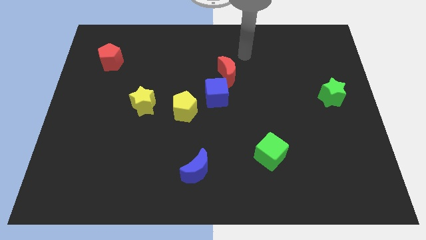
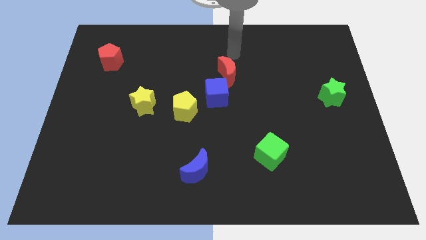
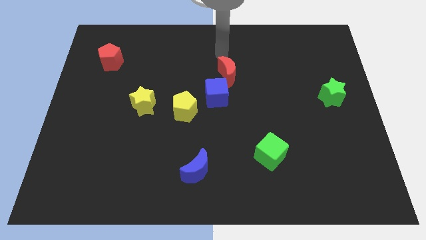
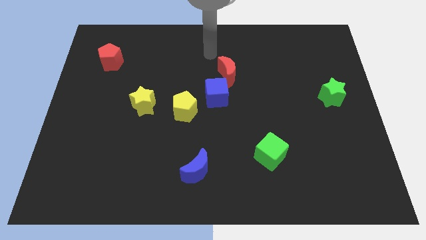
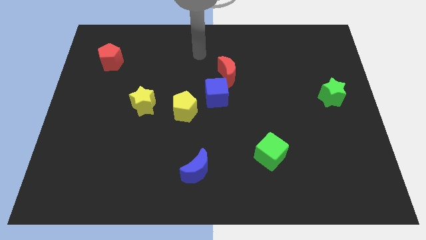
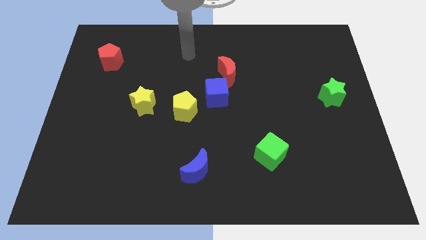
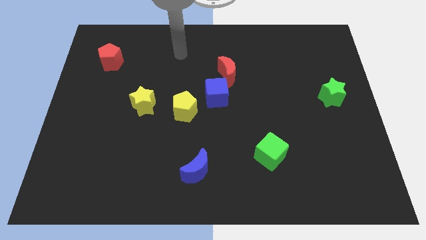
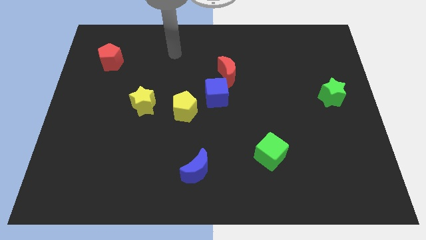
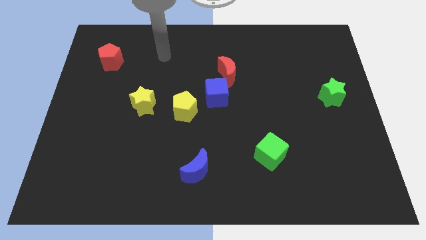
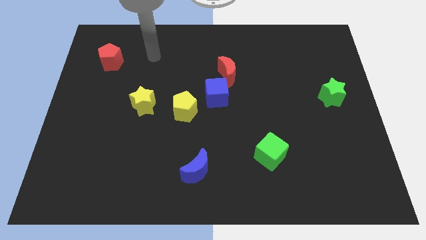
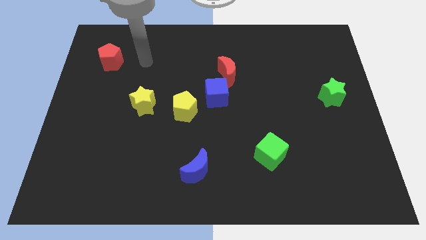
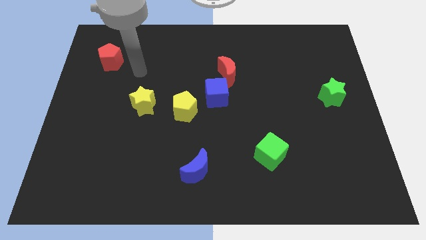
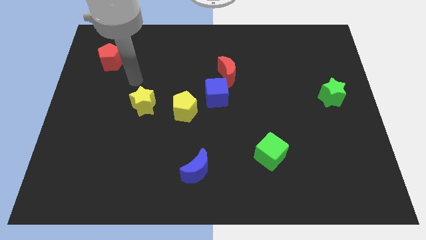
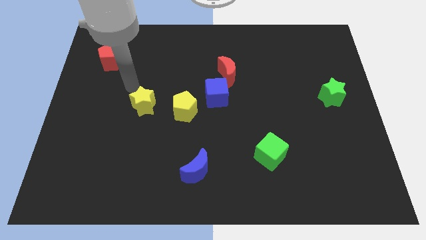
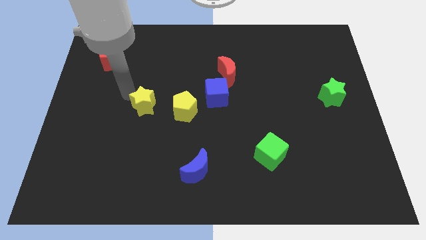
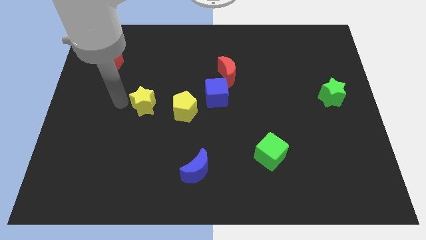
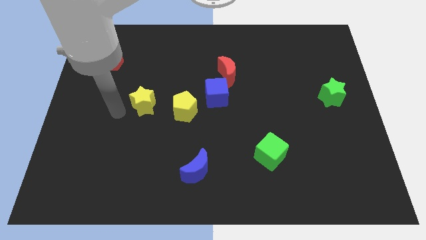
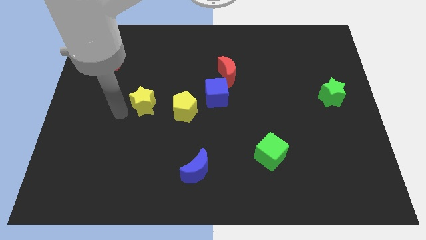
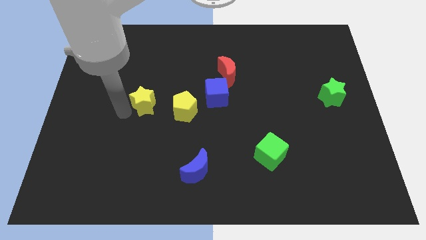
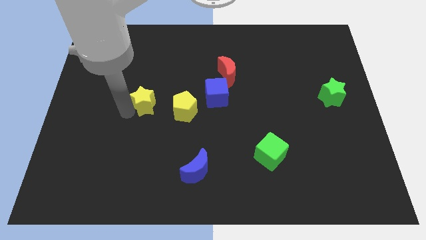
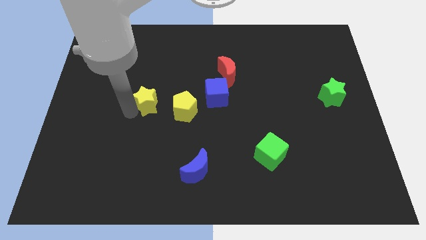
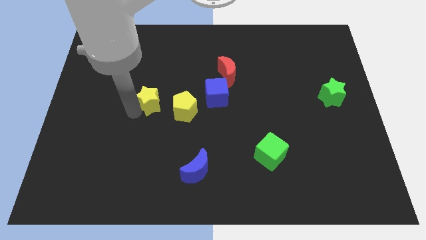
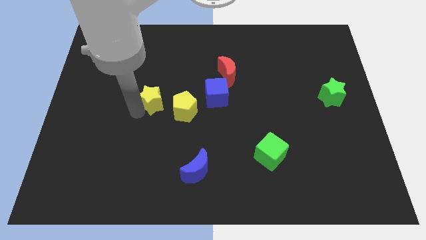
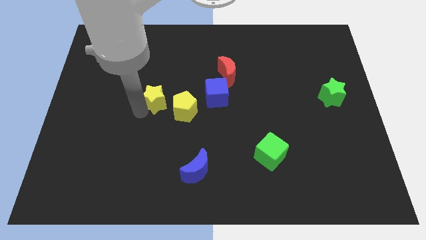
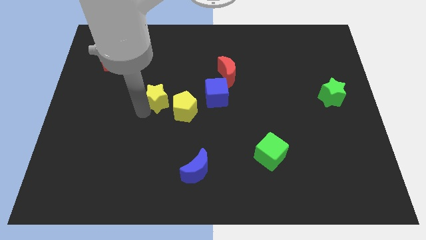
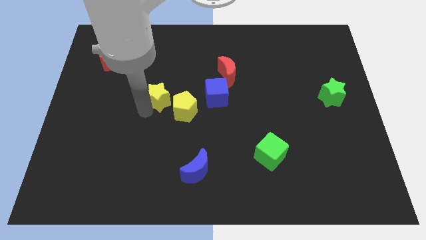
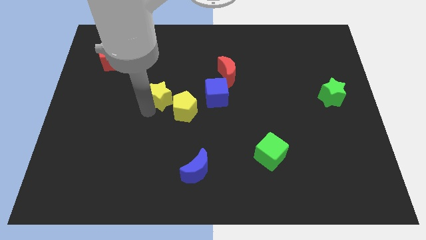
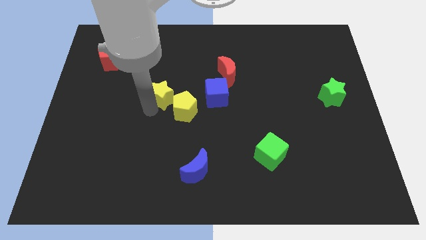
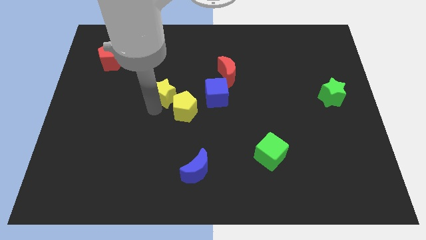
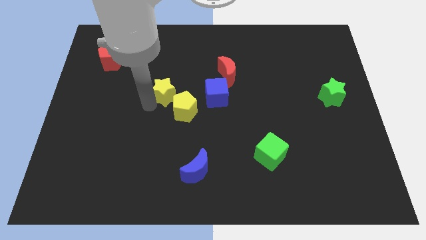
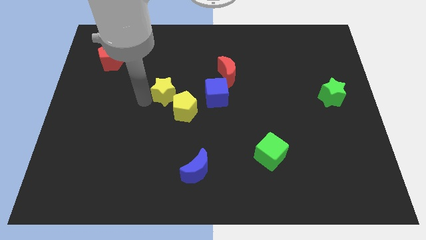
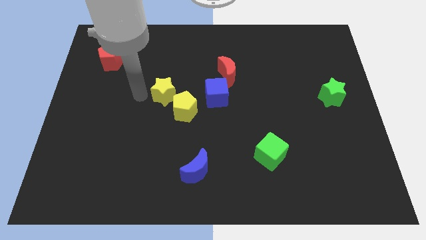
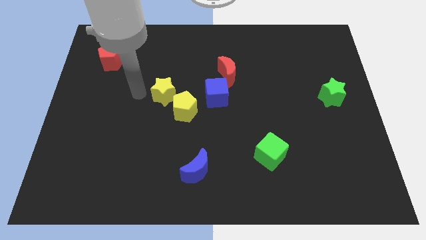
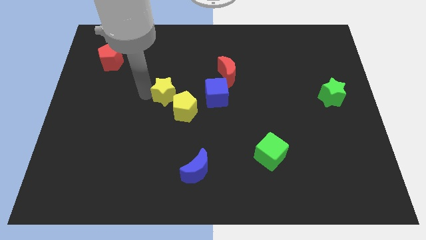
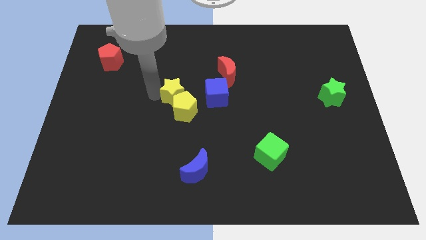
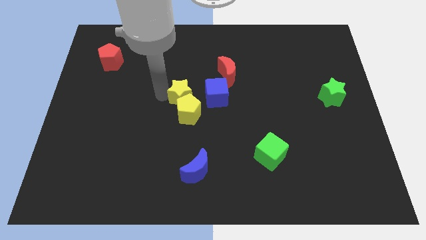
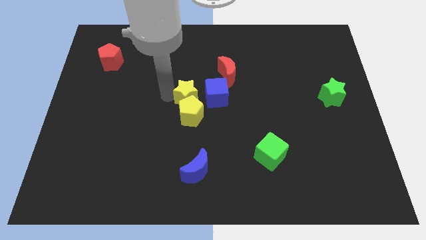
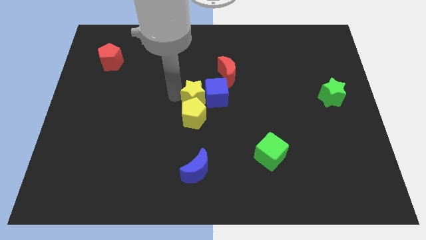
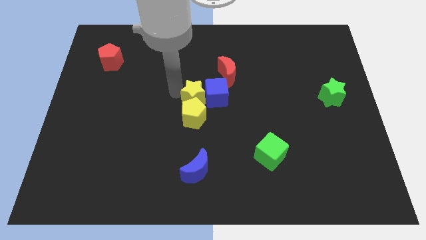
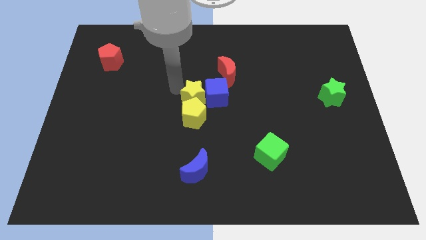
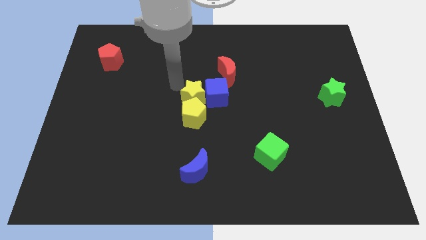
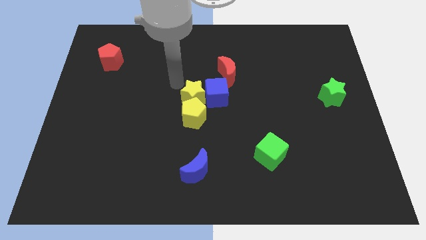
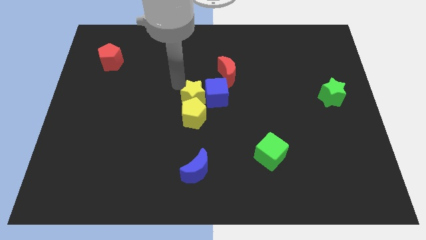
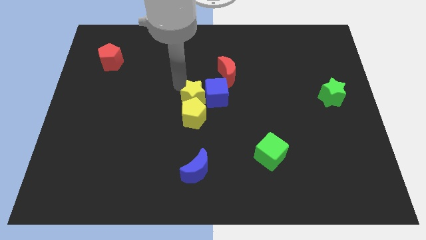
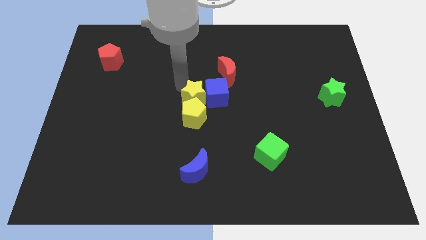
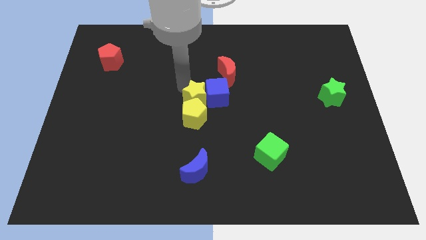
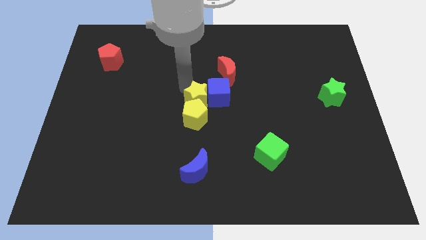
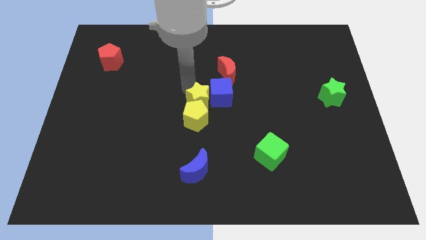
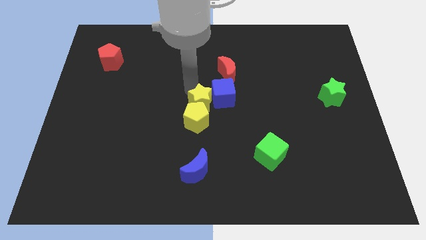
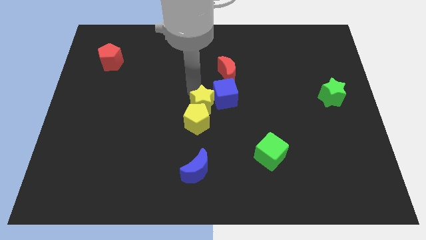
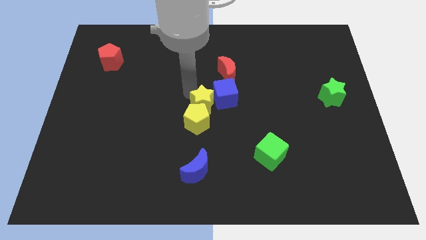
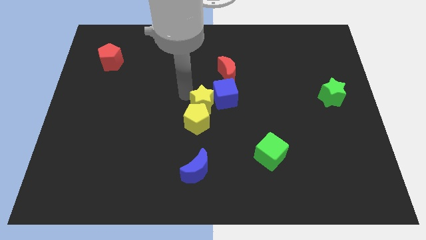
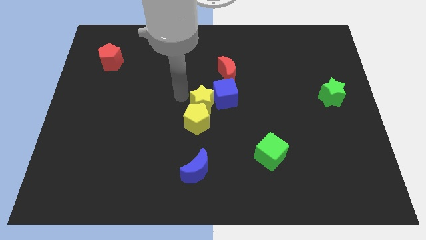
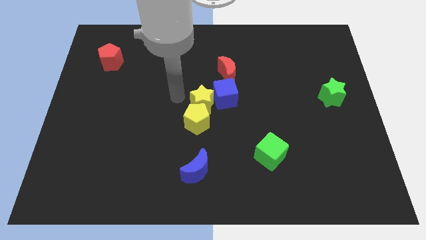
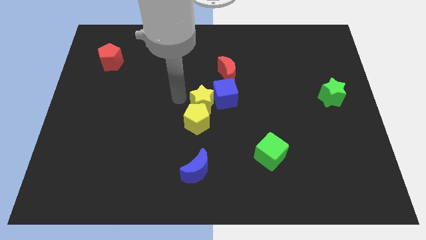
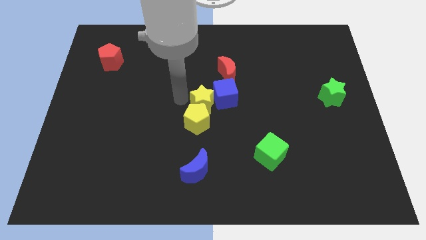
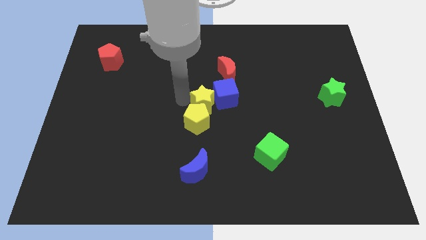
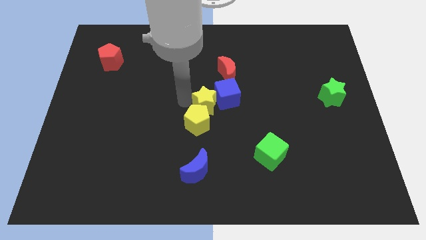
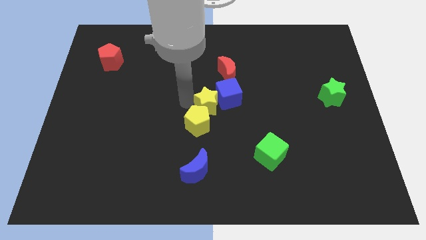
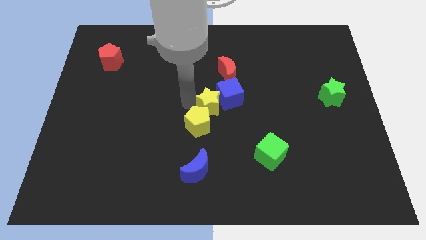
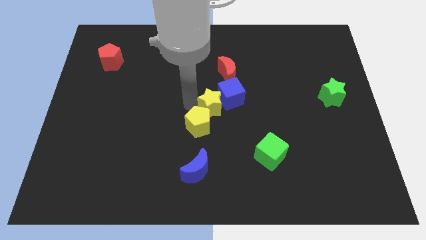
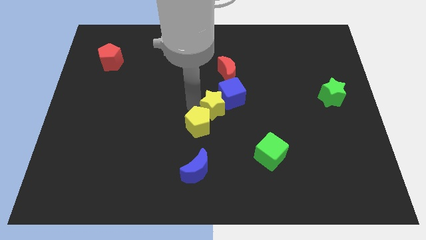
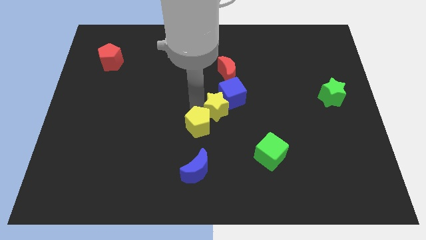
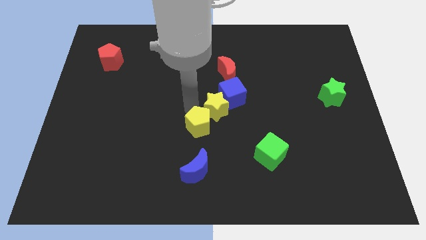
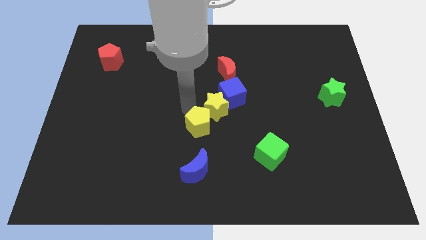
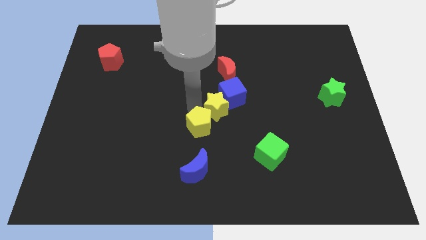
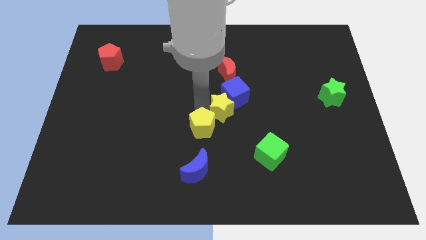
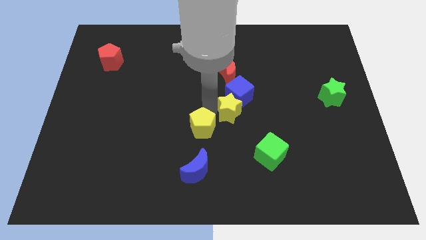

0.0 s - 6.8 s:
slide the yellow star to the right

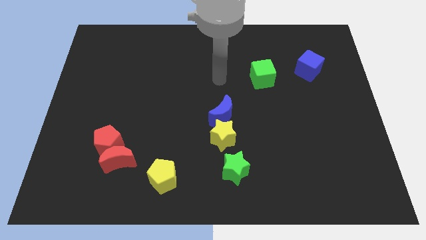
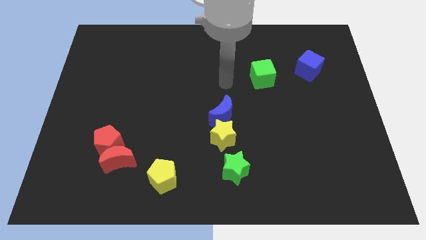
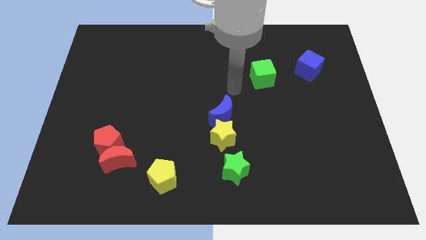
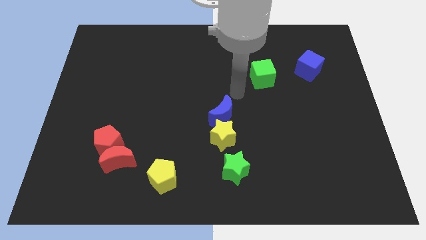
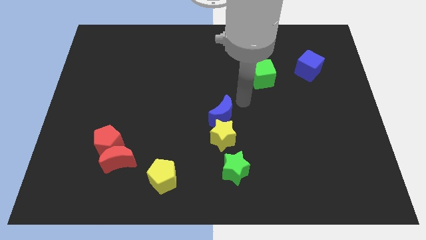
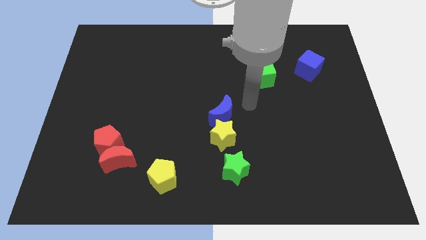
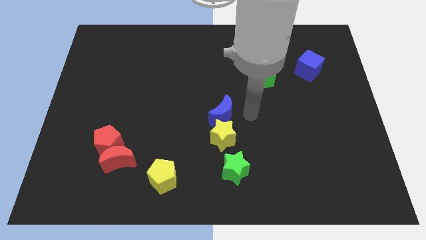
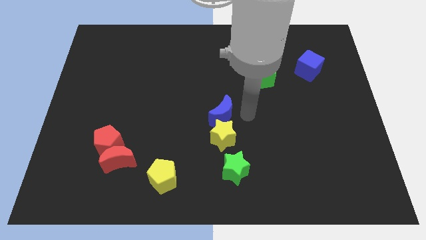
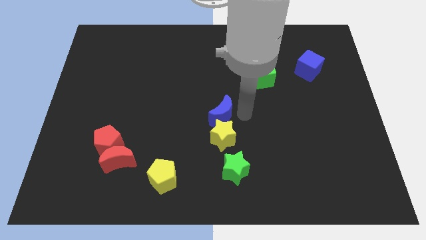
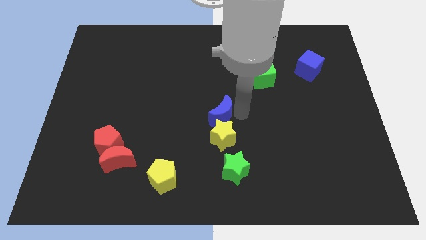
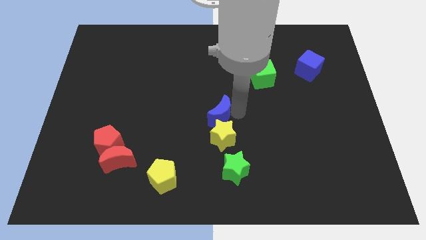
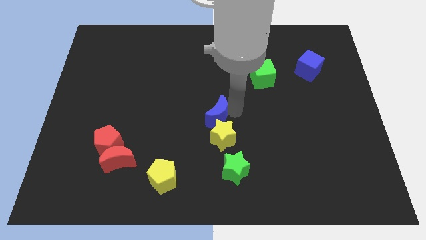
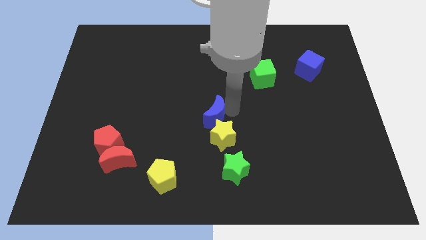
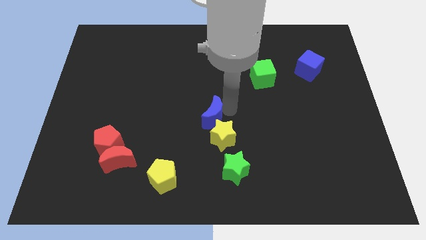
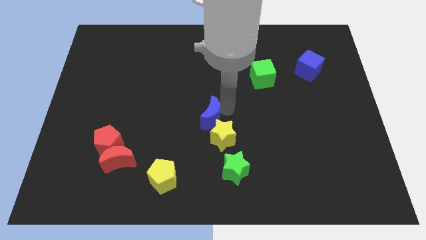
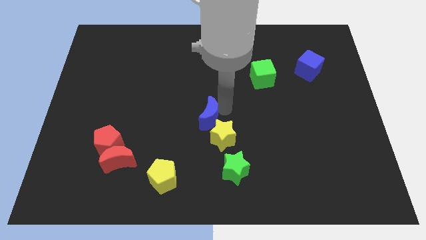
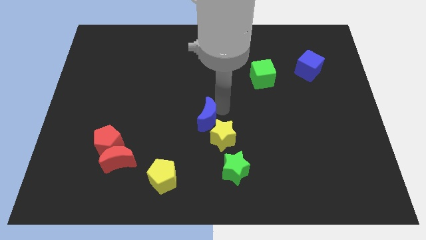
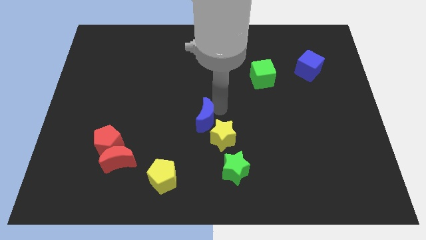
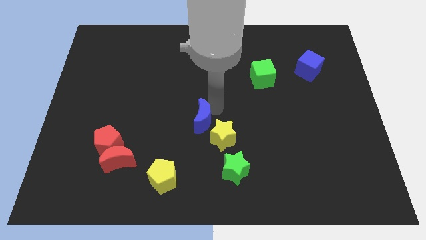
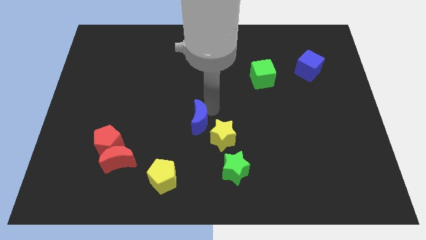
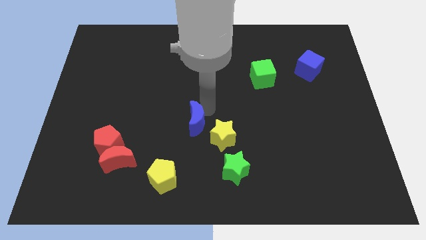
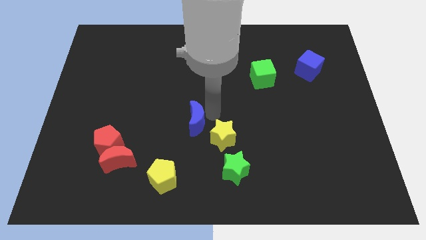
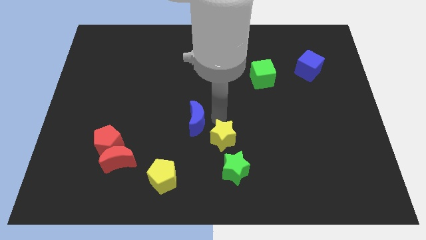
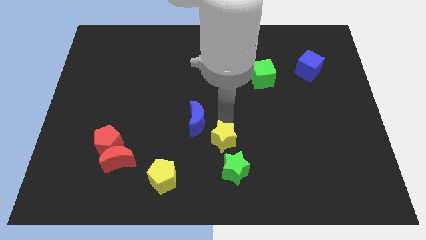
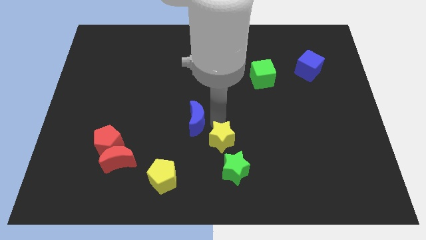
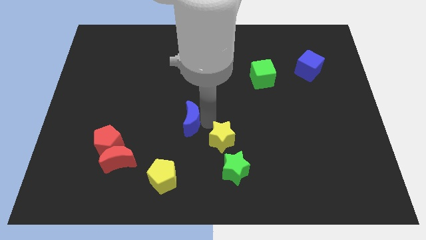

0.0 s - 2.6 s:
slightly slide the blue moon left
